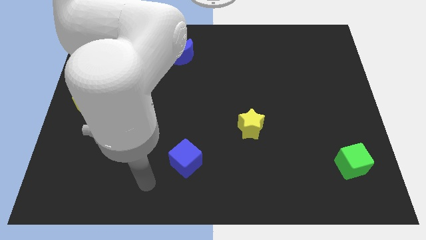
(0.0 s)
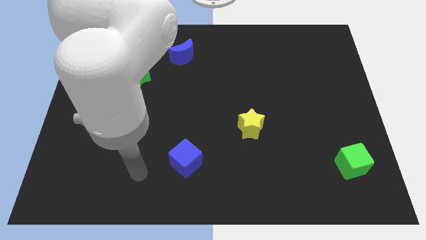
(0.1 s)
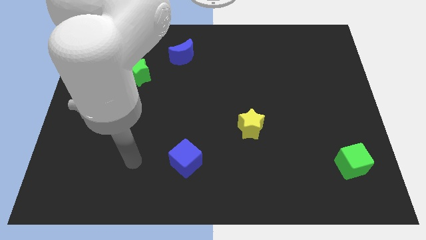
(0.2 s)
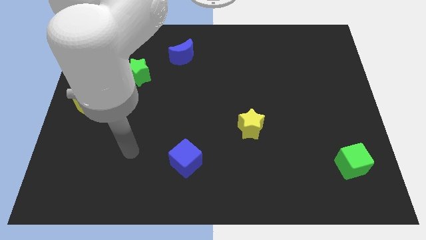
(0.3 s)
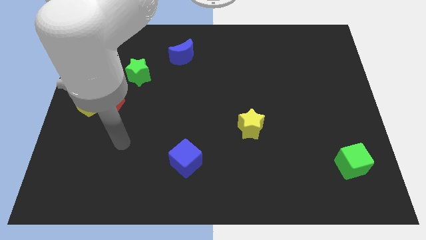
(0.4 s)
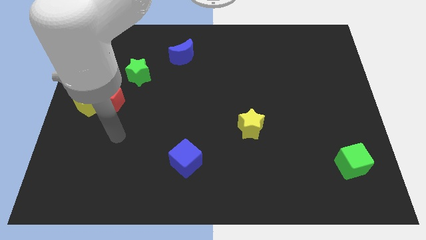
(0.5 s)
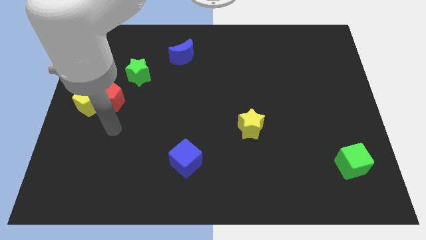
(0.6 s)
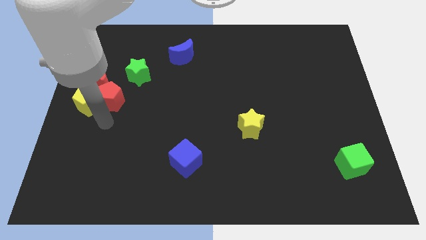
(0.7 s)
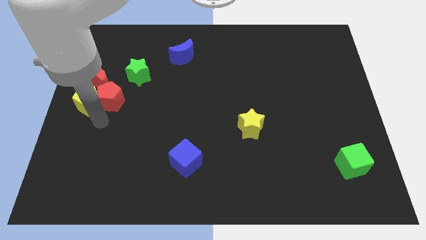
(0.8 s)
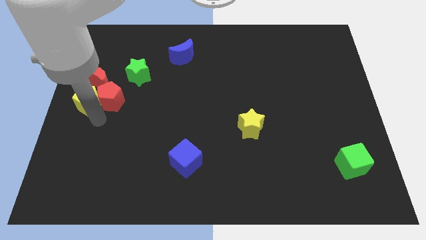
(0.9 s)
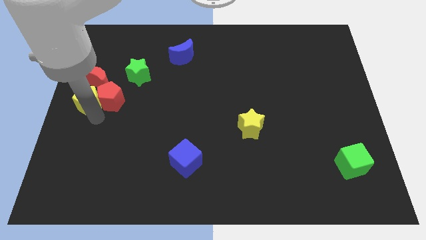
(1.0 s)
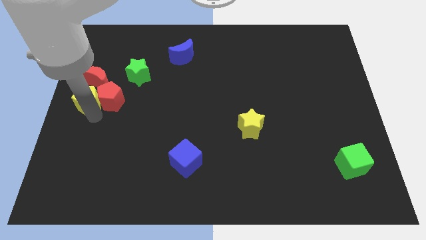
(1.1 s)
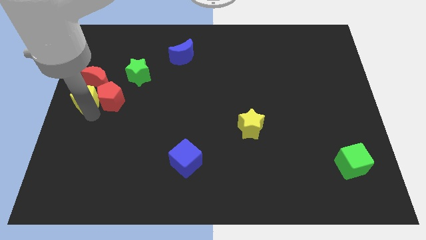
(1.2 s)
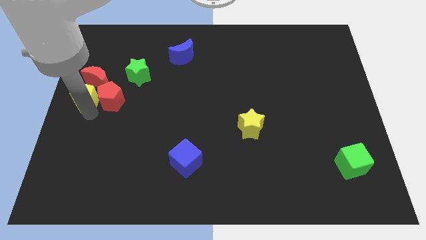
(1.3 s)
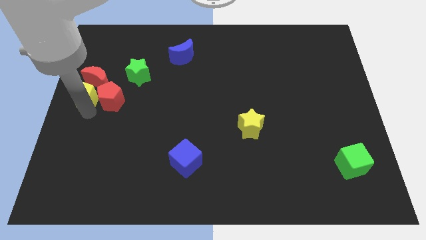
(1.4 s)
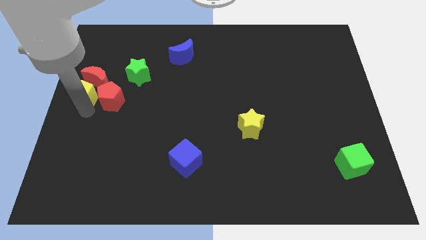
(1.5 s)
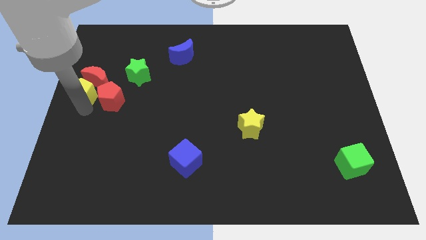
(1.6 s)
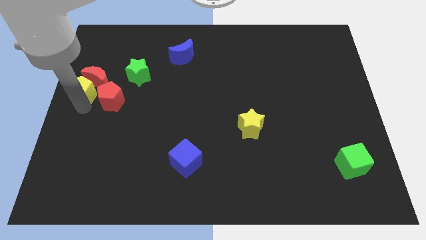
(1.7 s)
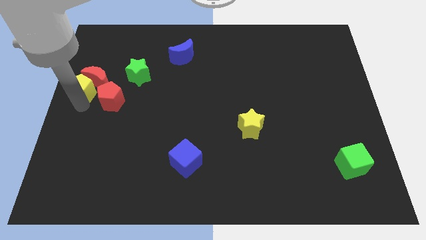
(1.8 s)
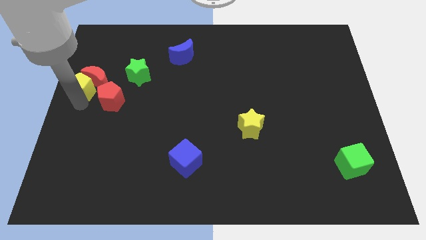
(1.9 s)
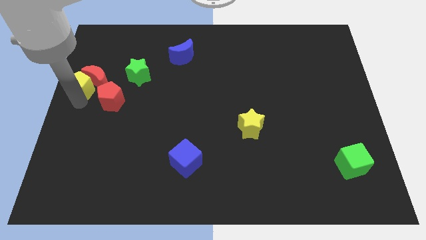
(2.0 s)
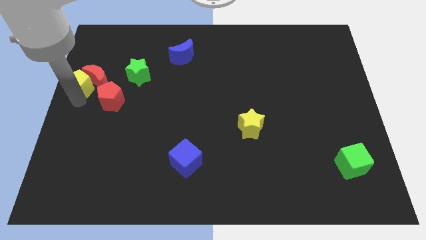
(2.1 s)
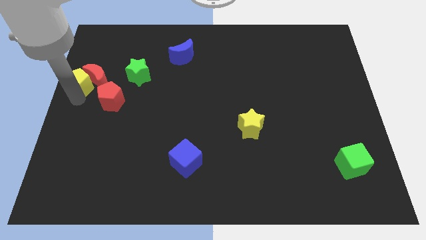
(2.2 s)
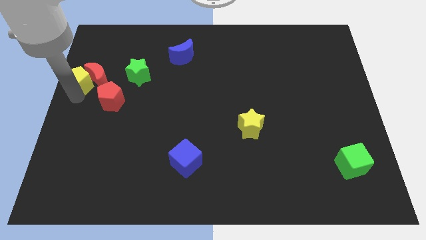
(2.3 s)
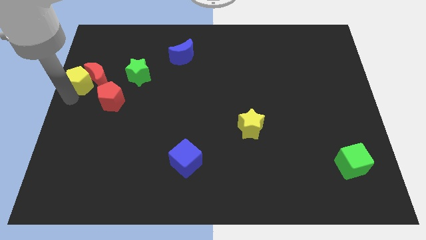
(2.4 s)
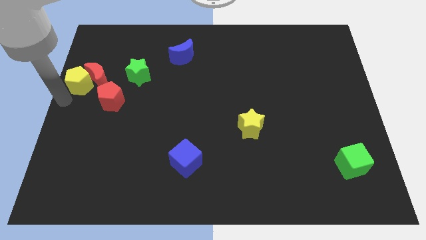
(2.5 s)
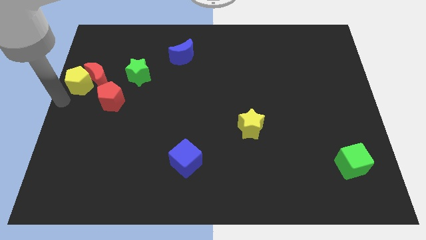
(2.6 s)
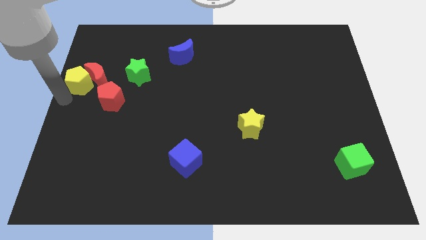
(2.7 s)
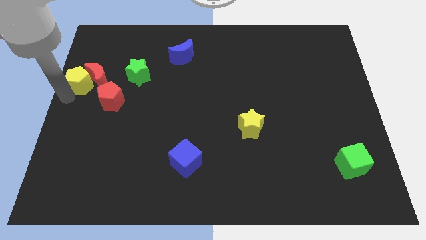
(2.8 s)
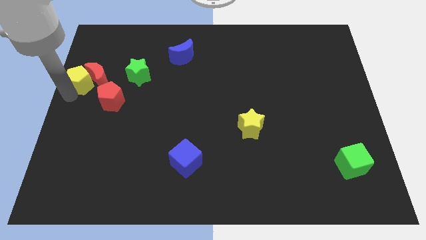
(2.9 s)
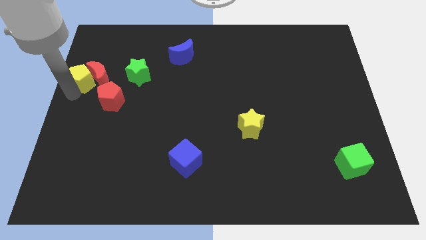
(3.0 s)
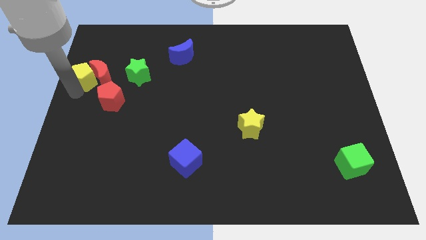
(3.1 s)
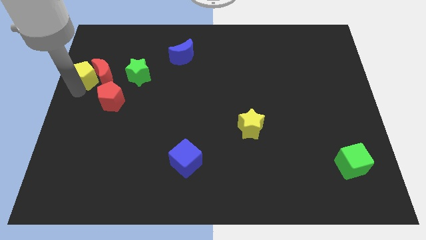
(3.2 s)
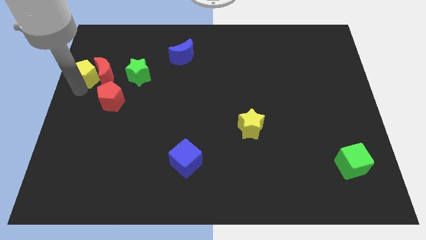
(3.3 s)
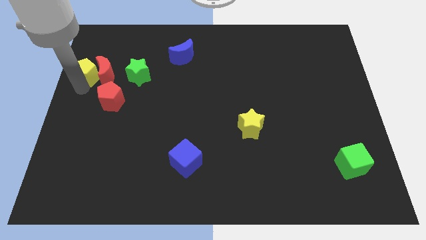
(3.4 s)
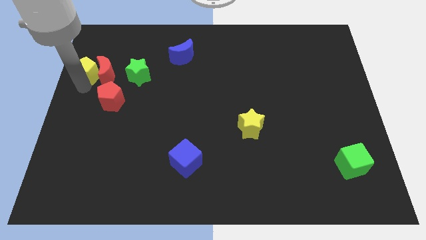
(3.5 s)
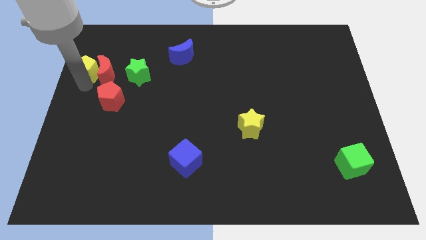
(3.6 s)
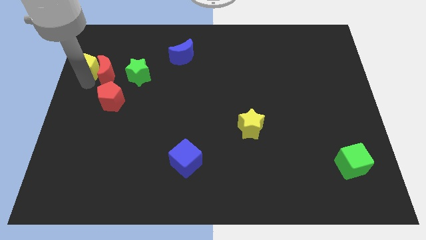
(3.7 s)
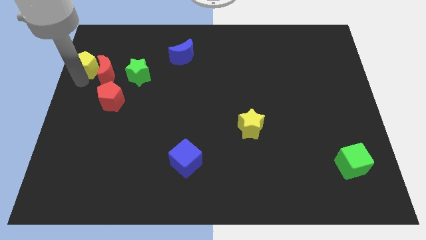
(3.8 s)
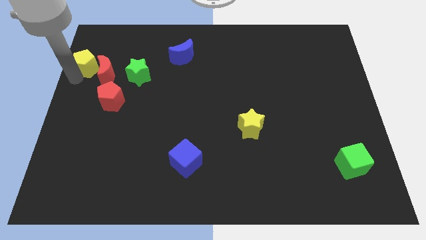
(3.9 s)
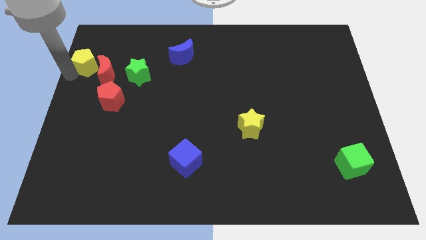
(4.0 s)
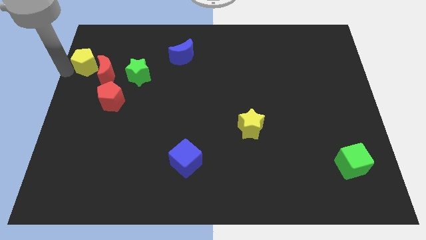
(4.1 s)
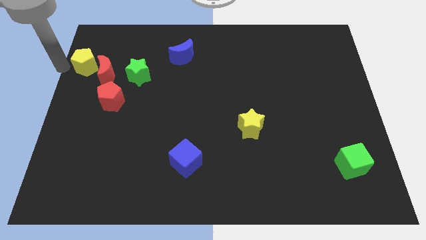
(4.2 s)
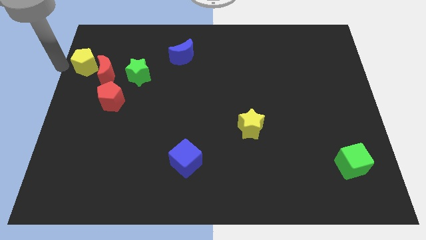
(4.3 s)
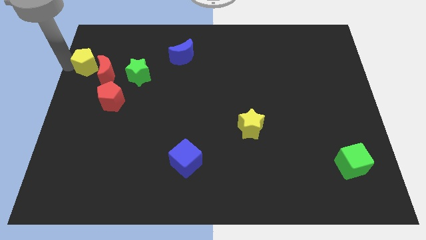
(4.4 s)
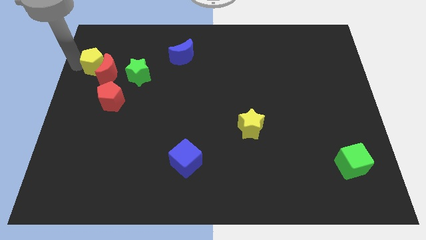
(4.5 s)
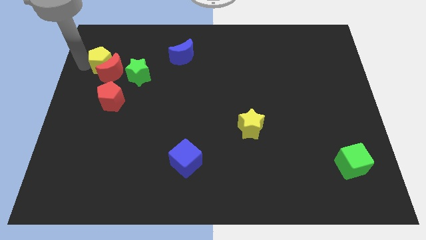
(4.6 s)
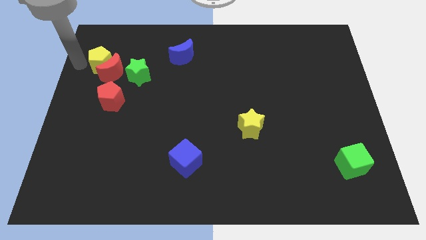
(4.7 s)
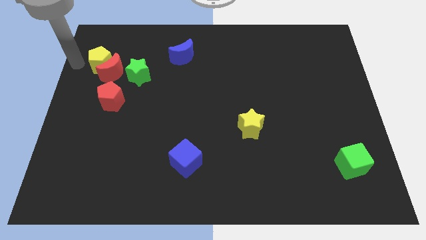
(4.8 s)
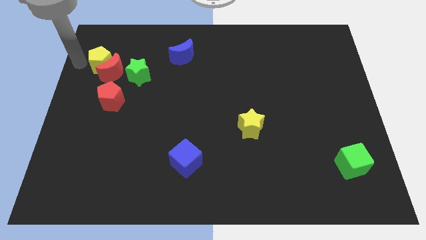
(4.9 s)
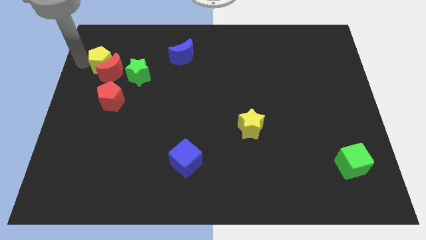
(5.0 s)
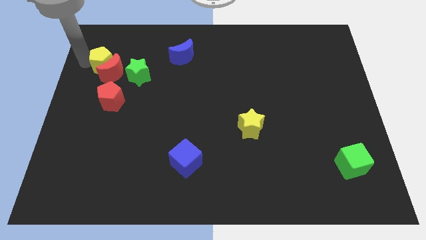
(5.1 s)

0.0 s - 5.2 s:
slide the yellow pentagon upwards and then right slightly

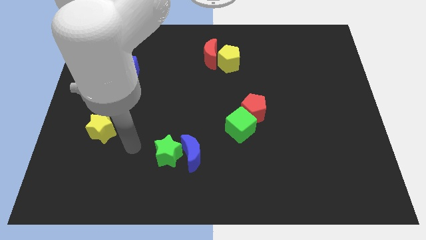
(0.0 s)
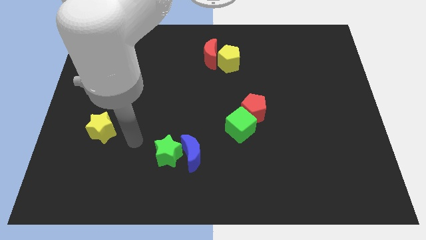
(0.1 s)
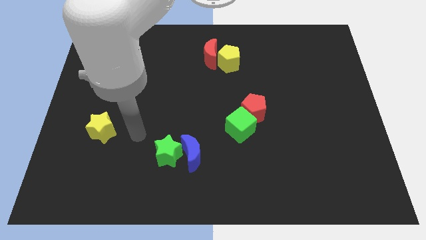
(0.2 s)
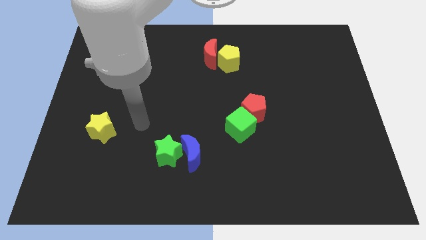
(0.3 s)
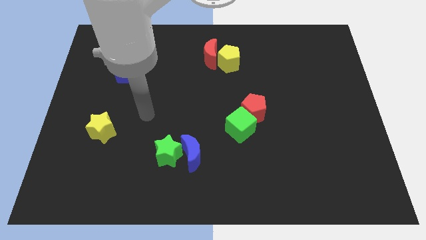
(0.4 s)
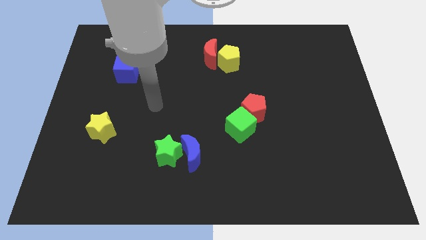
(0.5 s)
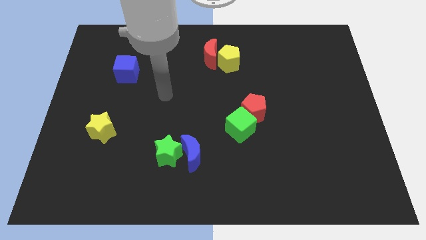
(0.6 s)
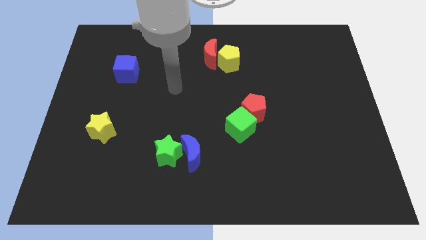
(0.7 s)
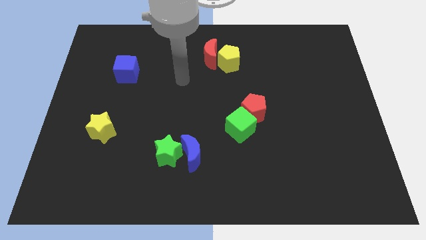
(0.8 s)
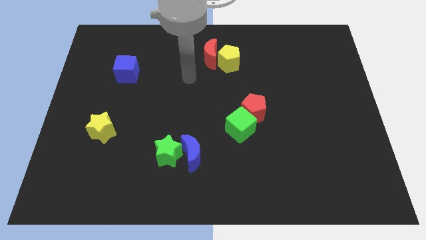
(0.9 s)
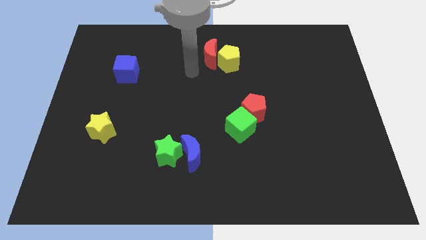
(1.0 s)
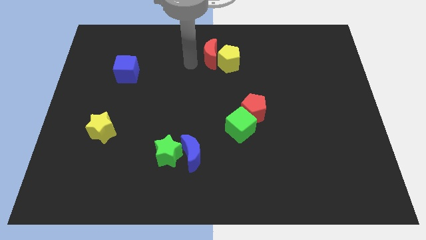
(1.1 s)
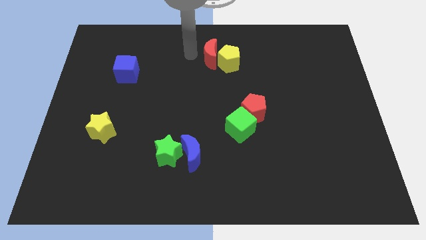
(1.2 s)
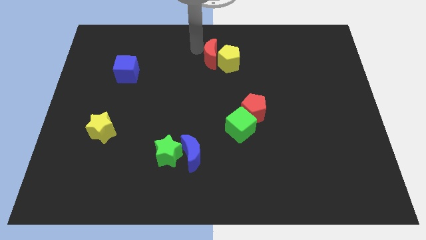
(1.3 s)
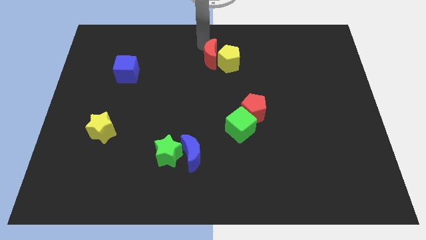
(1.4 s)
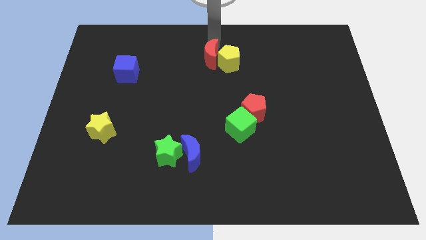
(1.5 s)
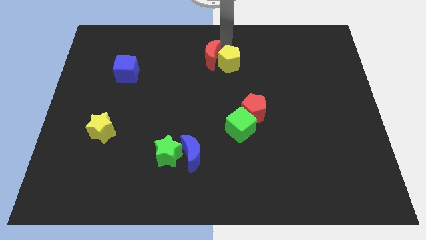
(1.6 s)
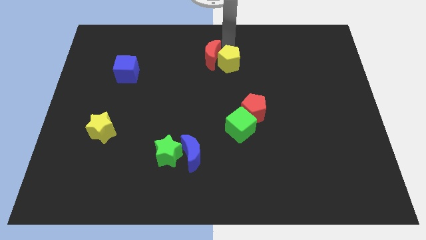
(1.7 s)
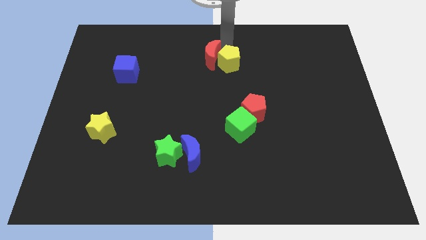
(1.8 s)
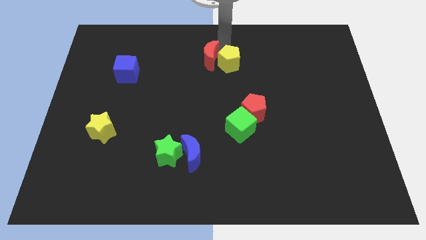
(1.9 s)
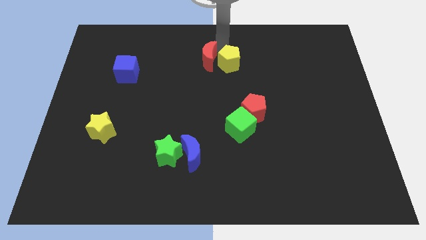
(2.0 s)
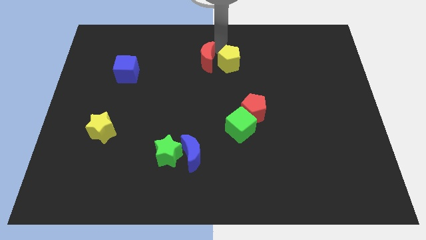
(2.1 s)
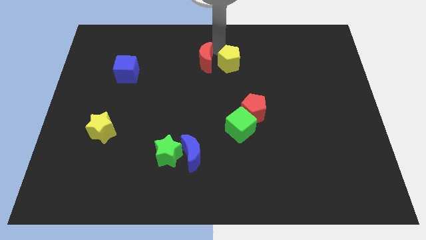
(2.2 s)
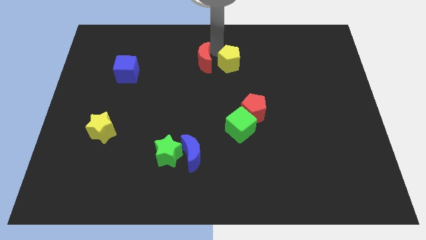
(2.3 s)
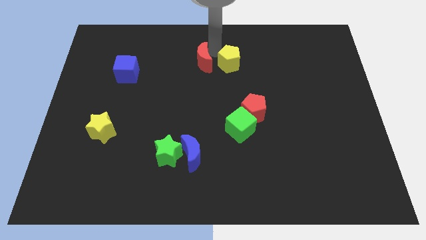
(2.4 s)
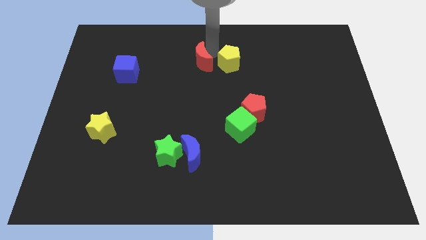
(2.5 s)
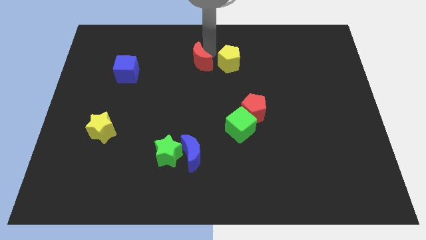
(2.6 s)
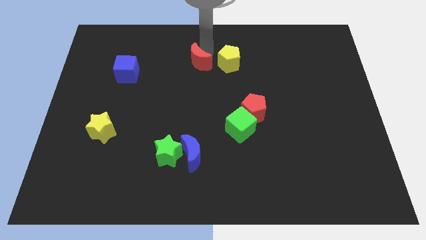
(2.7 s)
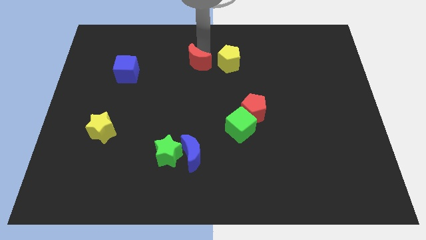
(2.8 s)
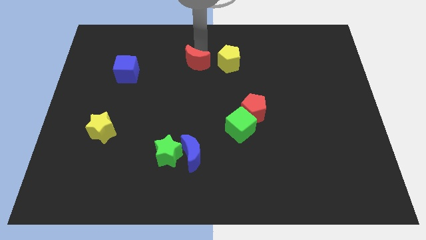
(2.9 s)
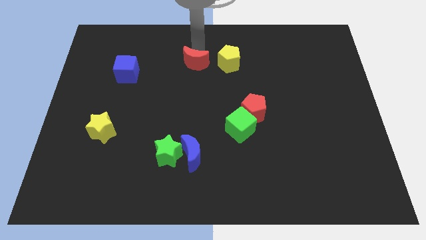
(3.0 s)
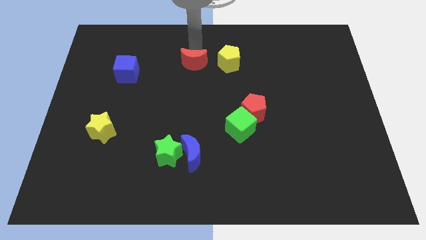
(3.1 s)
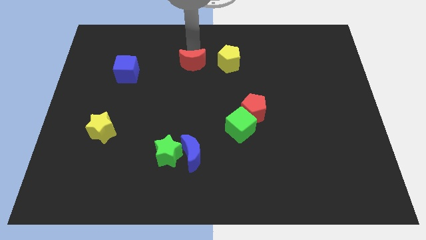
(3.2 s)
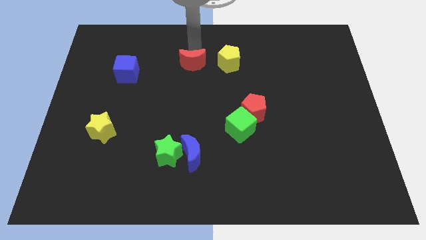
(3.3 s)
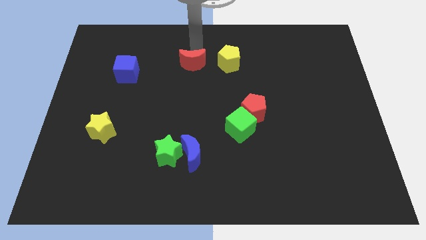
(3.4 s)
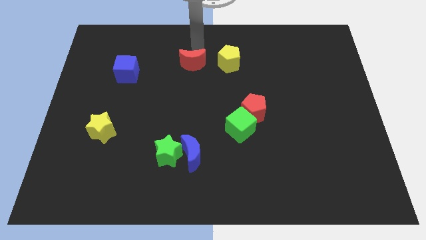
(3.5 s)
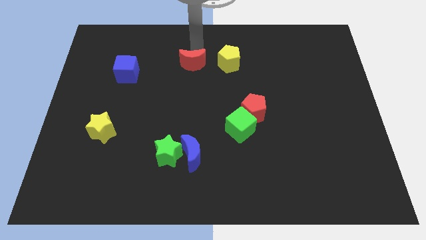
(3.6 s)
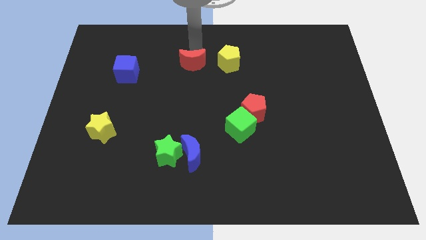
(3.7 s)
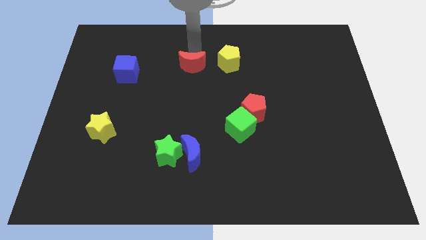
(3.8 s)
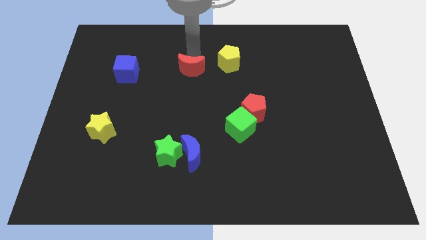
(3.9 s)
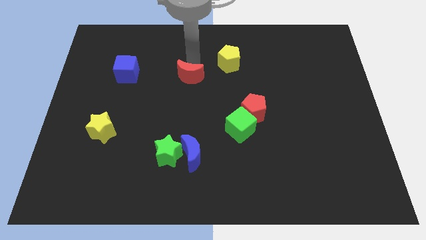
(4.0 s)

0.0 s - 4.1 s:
slide the red moon somewhat downwards and left
